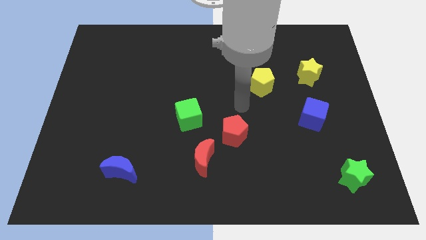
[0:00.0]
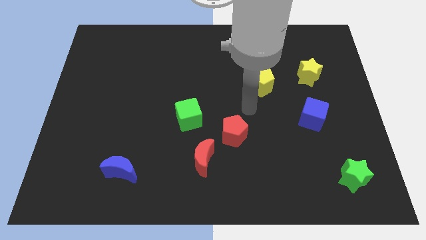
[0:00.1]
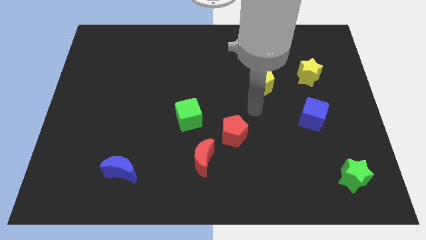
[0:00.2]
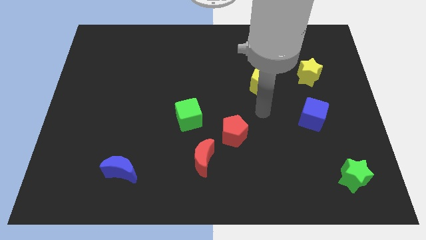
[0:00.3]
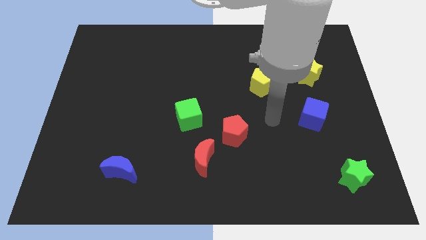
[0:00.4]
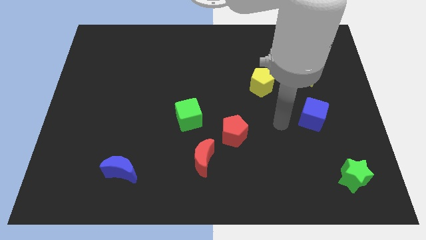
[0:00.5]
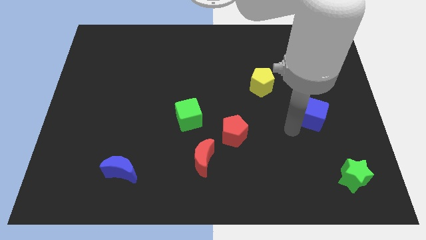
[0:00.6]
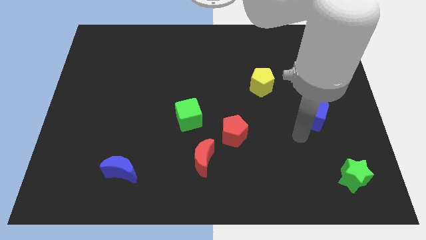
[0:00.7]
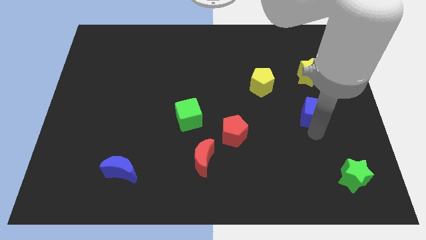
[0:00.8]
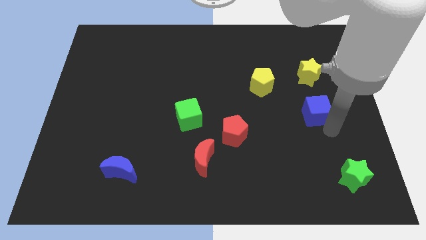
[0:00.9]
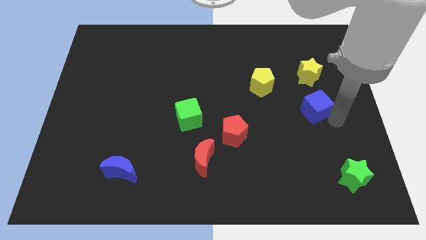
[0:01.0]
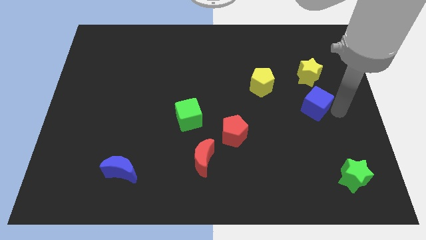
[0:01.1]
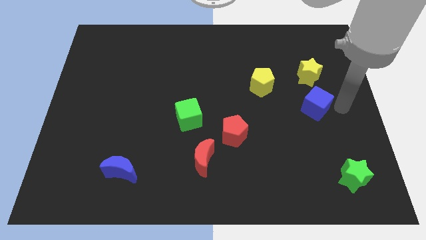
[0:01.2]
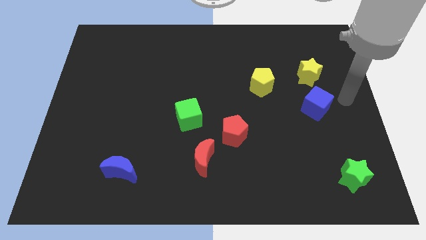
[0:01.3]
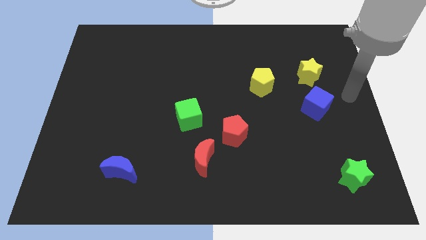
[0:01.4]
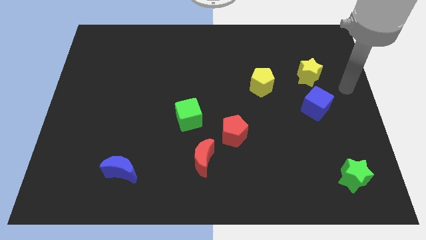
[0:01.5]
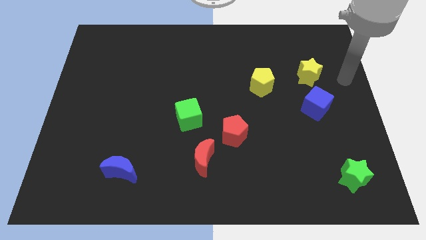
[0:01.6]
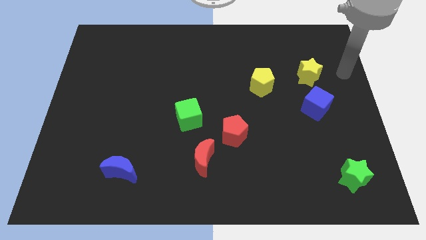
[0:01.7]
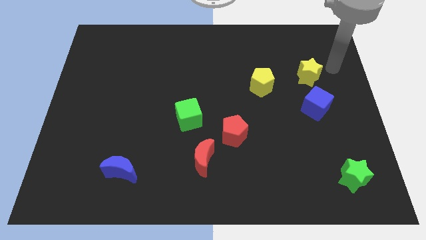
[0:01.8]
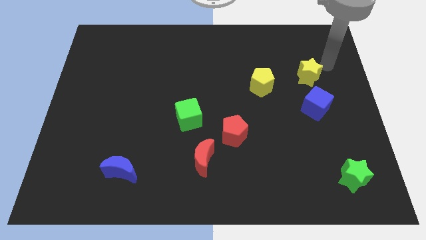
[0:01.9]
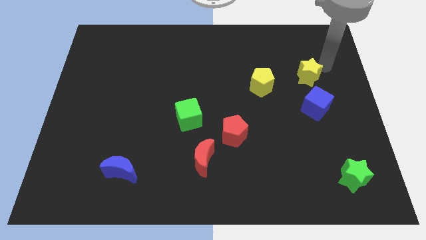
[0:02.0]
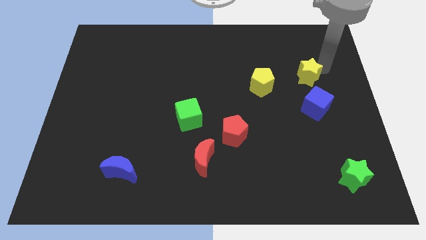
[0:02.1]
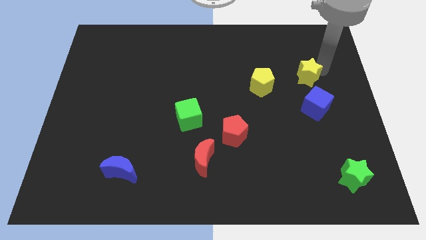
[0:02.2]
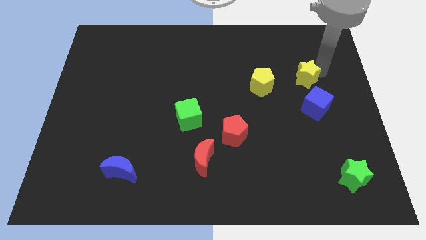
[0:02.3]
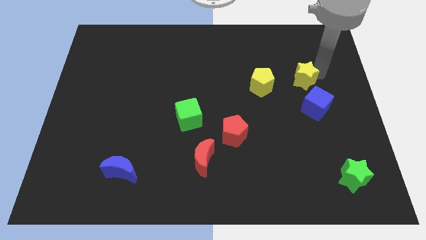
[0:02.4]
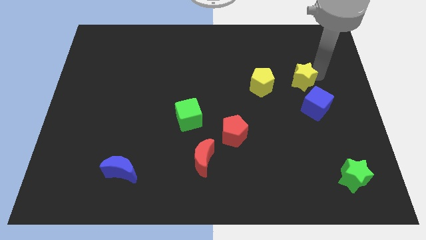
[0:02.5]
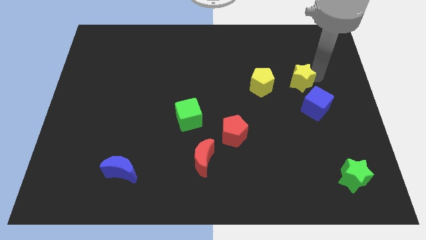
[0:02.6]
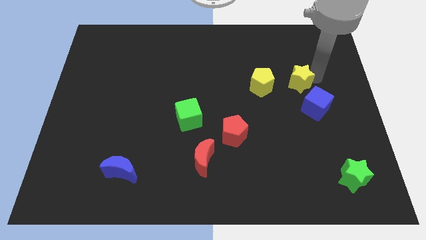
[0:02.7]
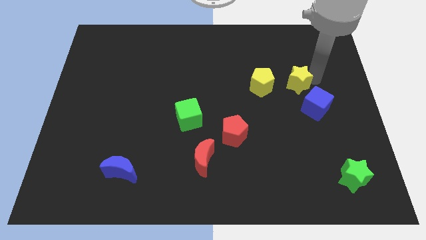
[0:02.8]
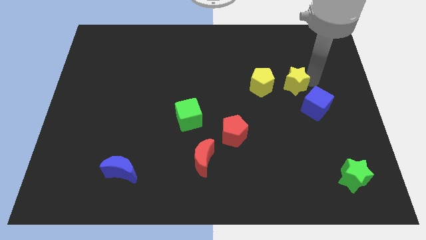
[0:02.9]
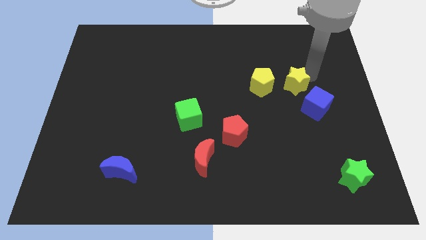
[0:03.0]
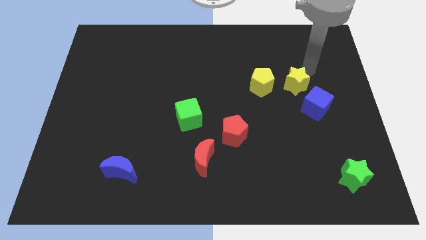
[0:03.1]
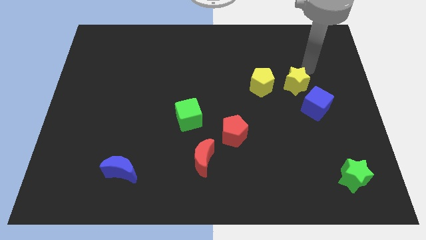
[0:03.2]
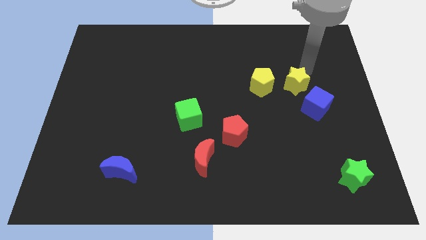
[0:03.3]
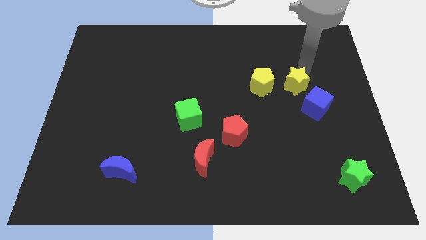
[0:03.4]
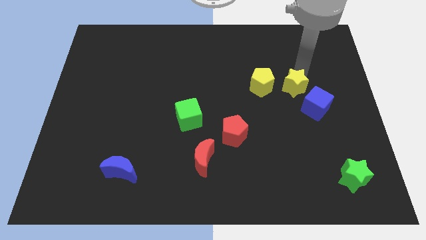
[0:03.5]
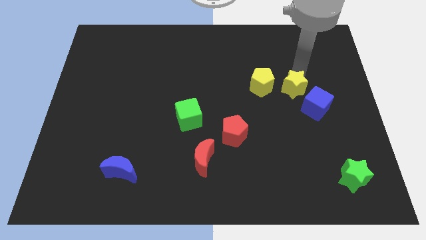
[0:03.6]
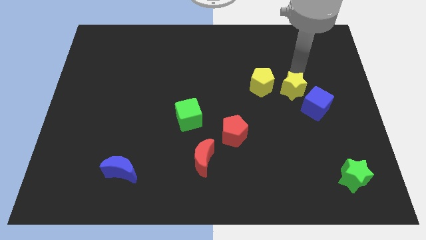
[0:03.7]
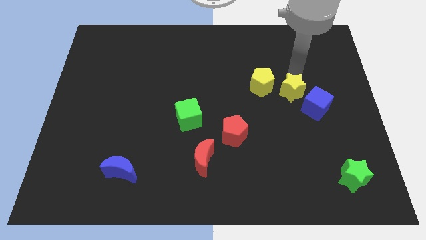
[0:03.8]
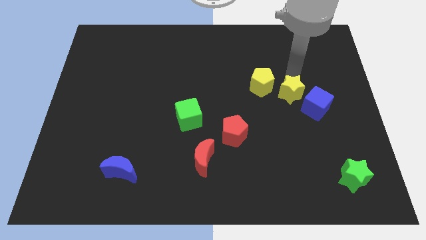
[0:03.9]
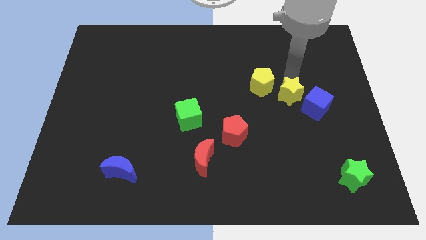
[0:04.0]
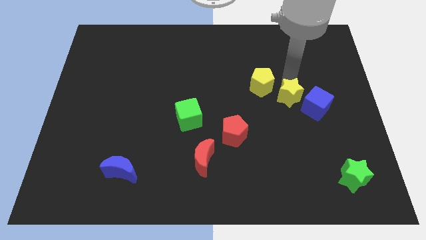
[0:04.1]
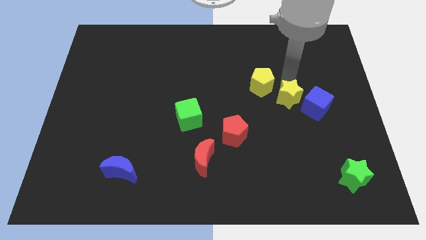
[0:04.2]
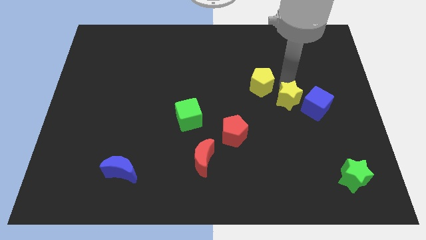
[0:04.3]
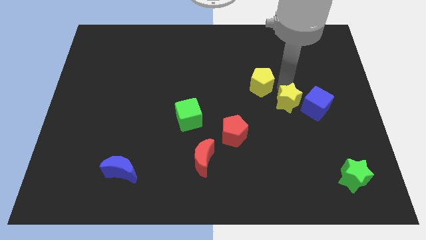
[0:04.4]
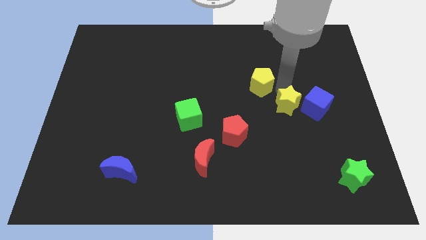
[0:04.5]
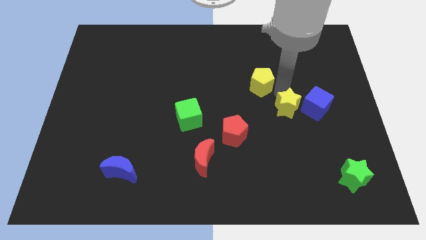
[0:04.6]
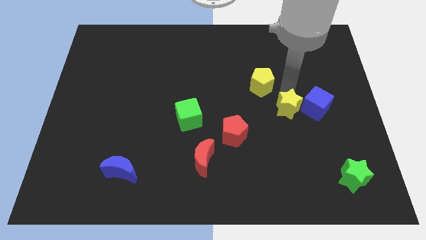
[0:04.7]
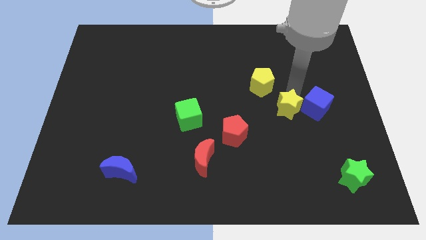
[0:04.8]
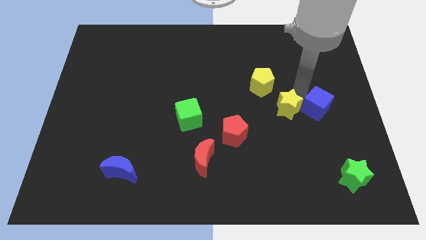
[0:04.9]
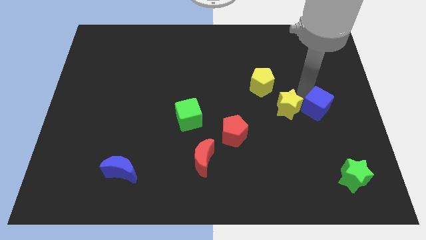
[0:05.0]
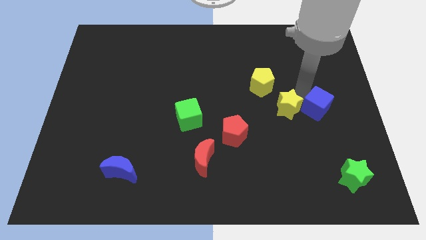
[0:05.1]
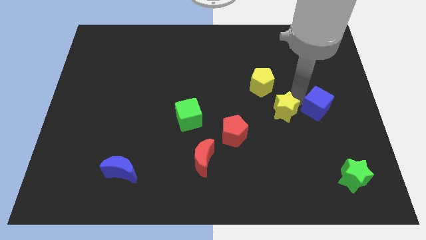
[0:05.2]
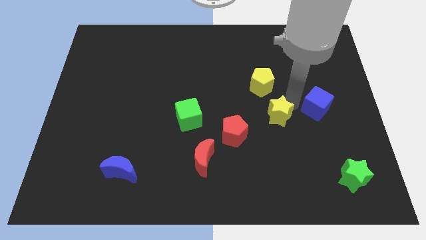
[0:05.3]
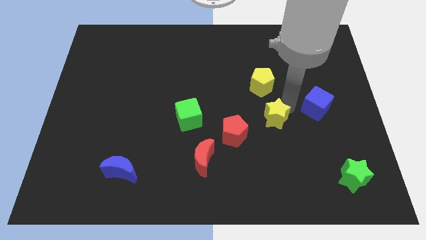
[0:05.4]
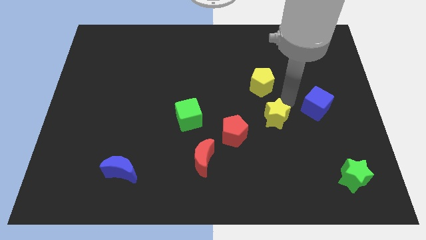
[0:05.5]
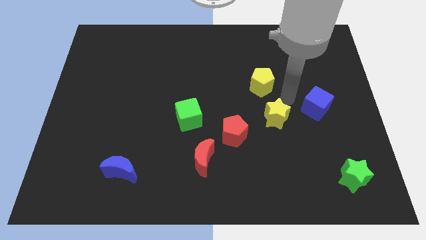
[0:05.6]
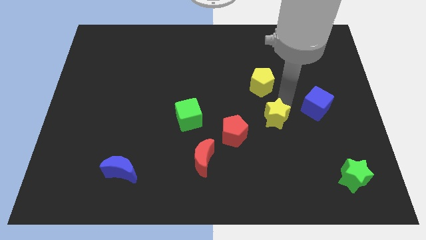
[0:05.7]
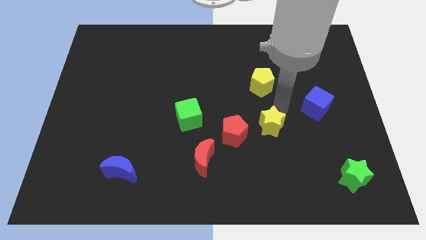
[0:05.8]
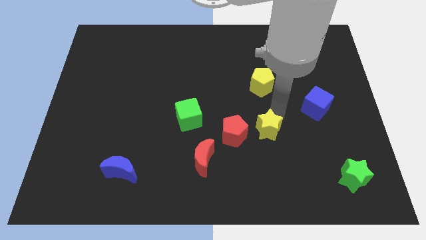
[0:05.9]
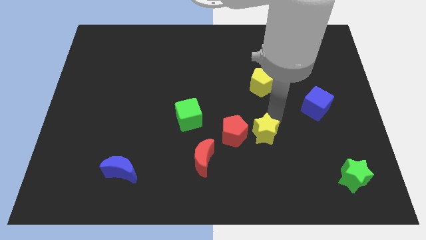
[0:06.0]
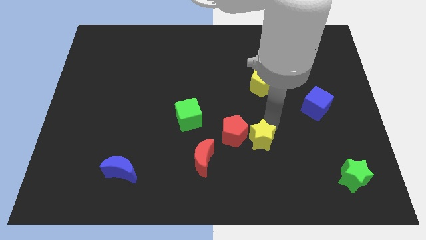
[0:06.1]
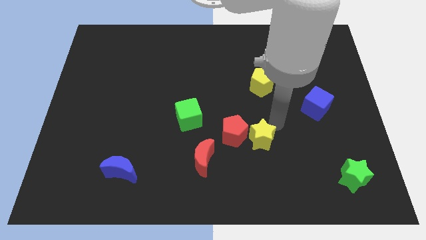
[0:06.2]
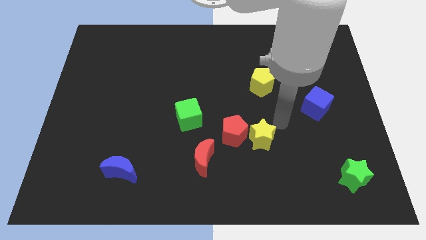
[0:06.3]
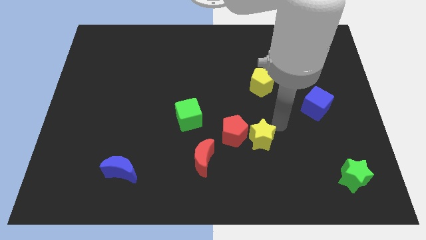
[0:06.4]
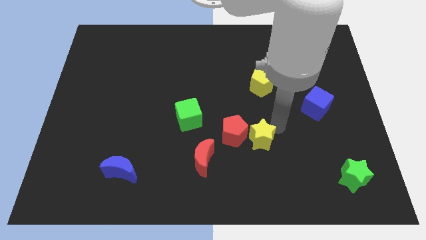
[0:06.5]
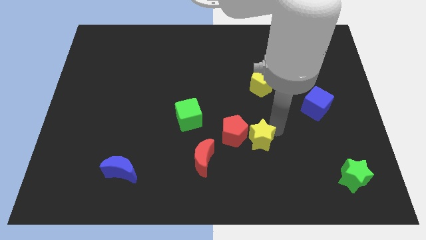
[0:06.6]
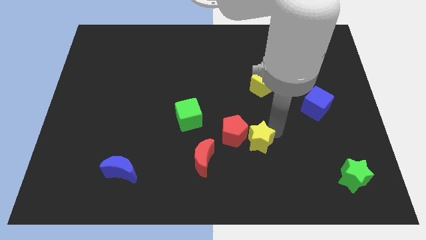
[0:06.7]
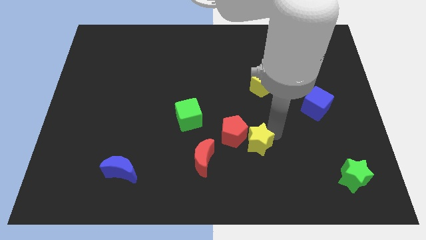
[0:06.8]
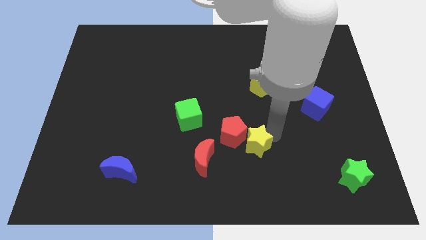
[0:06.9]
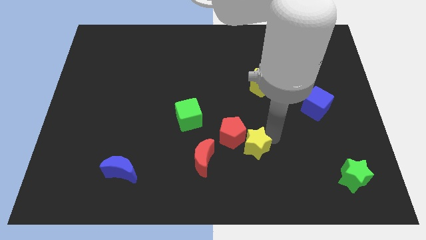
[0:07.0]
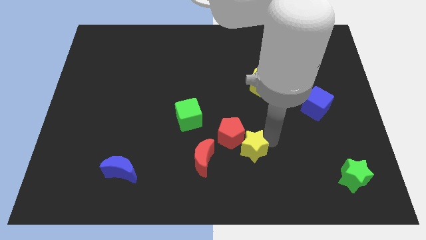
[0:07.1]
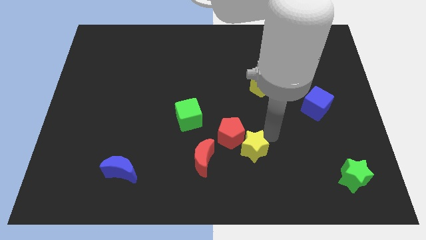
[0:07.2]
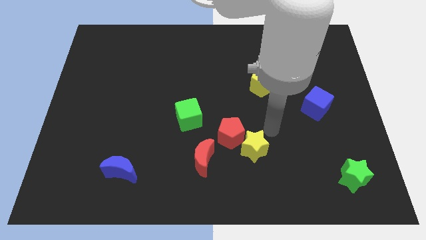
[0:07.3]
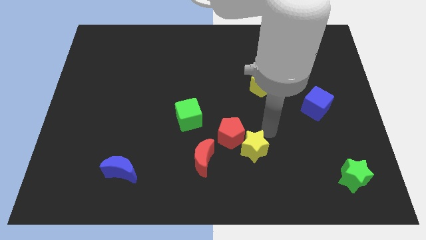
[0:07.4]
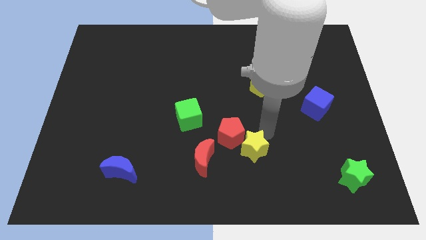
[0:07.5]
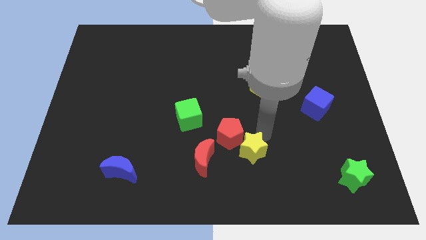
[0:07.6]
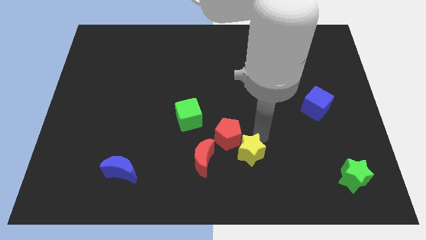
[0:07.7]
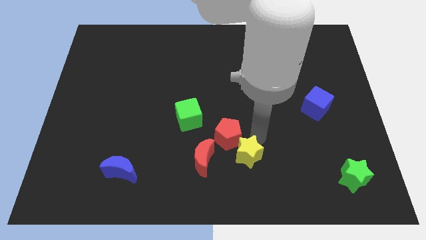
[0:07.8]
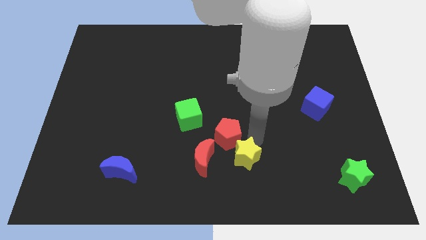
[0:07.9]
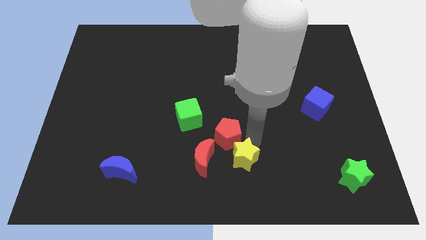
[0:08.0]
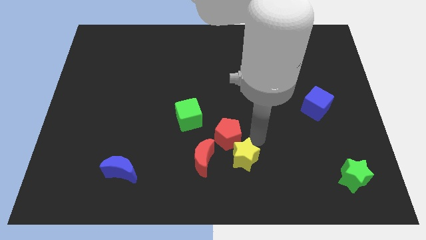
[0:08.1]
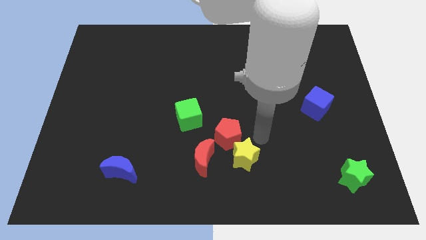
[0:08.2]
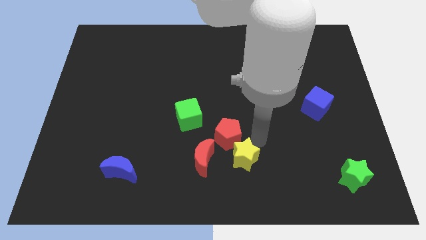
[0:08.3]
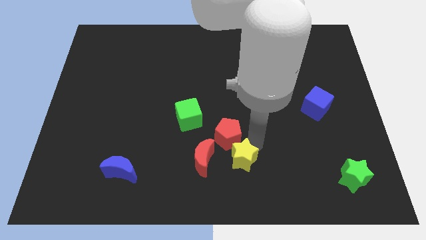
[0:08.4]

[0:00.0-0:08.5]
push the yellow star to the bottom side
